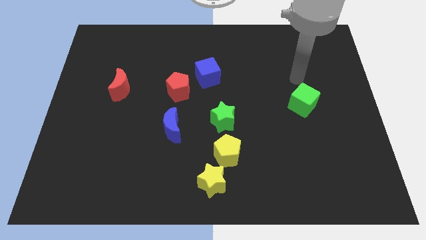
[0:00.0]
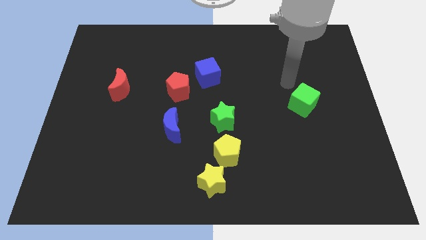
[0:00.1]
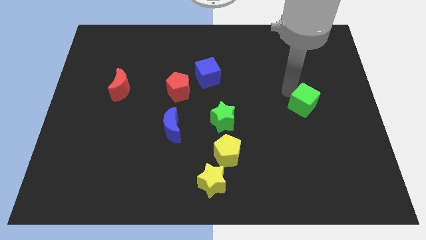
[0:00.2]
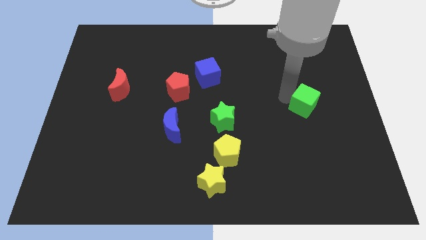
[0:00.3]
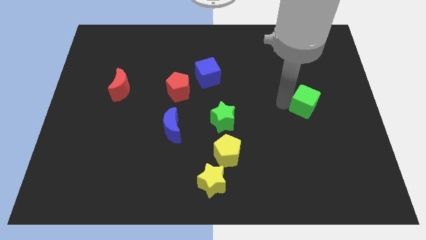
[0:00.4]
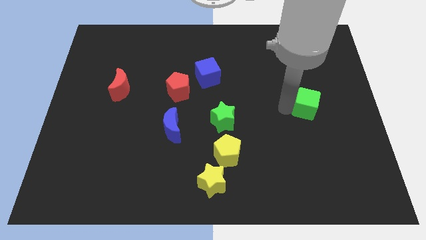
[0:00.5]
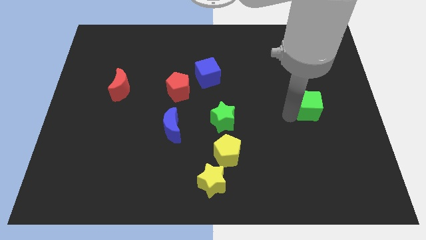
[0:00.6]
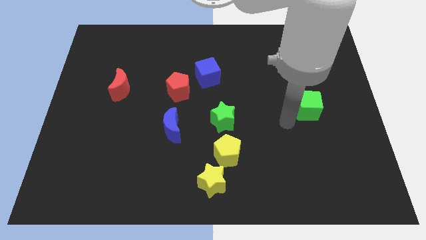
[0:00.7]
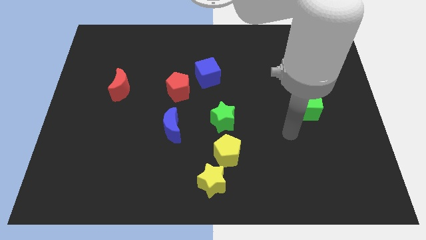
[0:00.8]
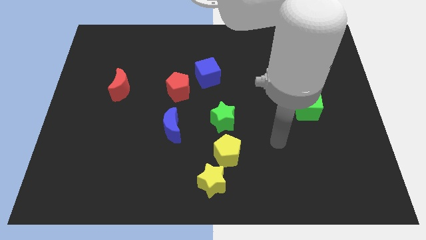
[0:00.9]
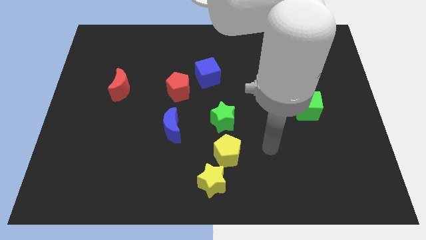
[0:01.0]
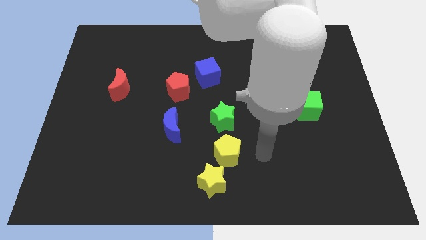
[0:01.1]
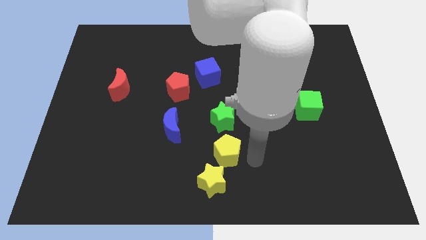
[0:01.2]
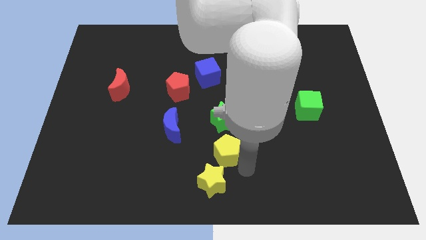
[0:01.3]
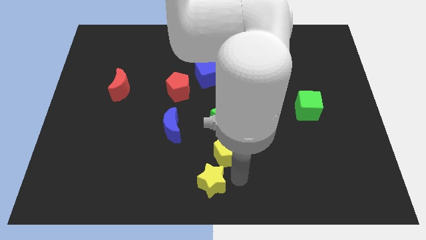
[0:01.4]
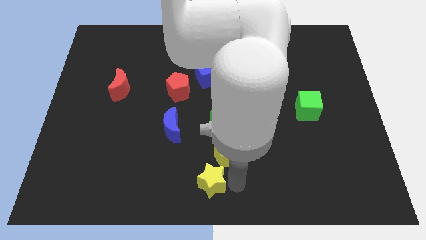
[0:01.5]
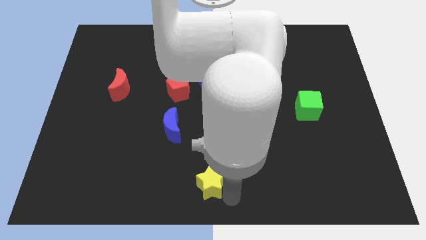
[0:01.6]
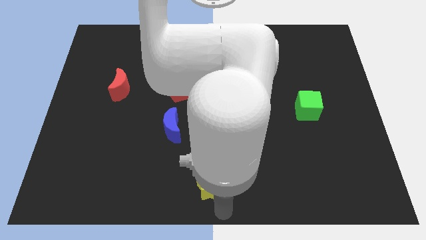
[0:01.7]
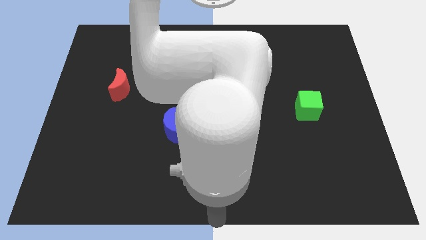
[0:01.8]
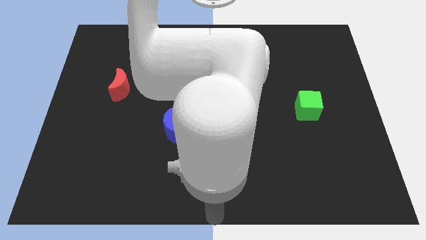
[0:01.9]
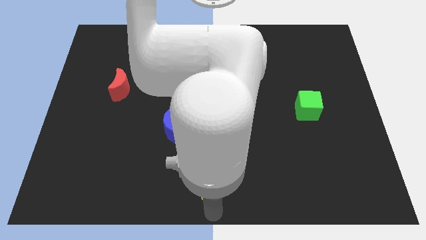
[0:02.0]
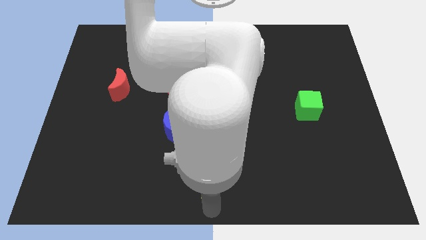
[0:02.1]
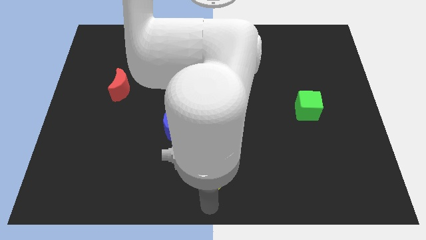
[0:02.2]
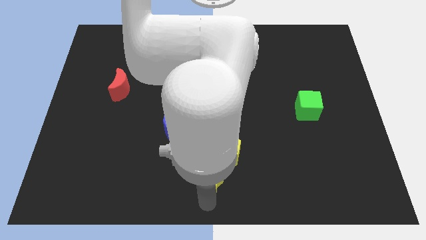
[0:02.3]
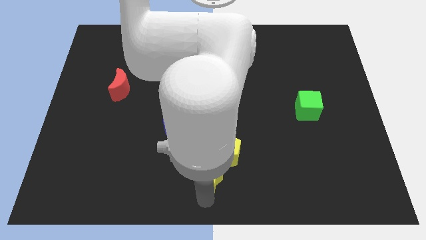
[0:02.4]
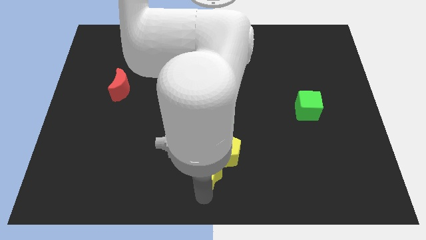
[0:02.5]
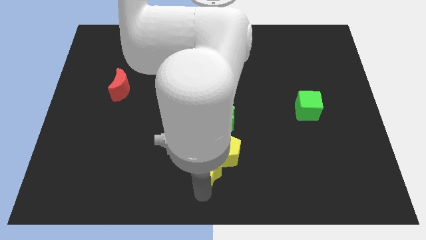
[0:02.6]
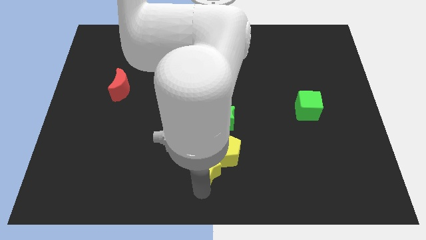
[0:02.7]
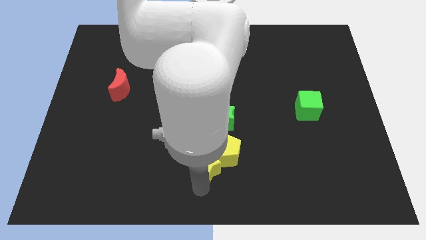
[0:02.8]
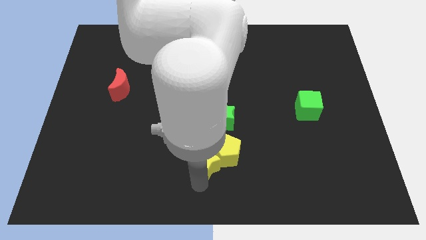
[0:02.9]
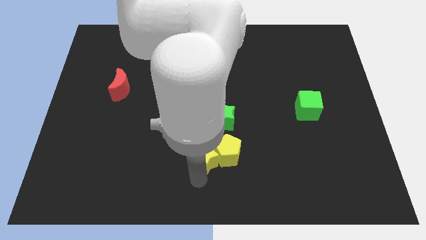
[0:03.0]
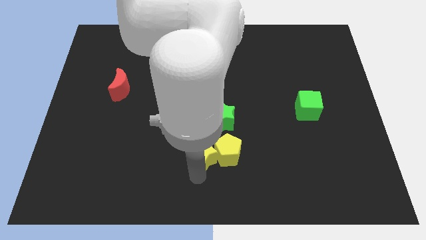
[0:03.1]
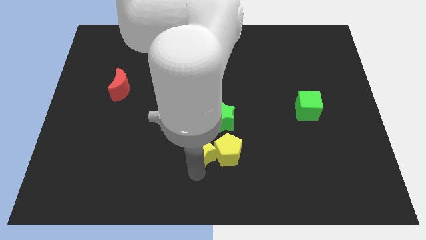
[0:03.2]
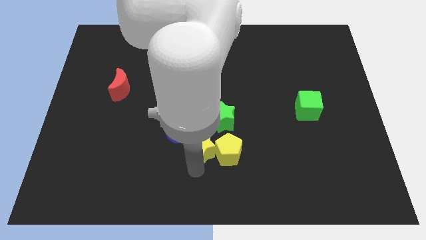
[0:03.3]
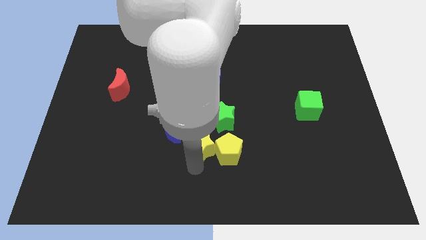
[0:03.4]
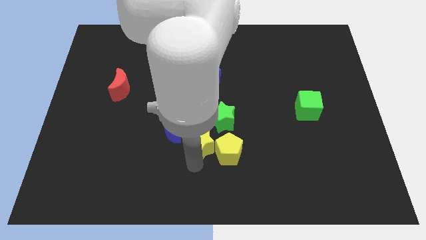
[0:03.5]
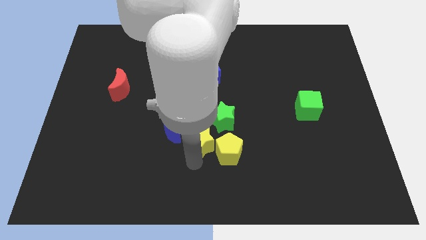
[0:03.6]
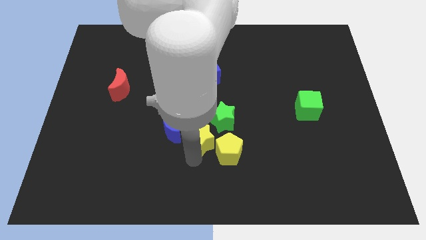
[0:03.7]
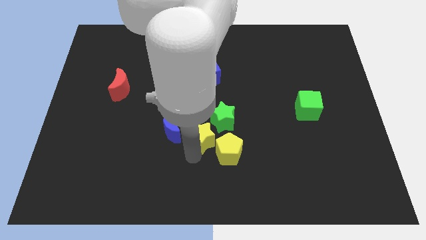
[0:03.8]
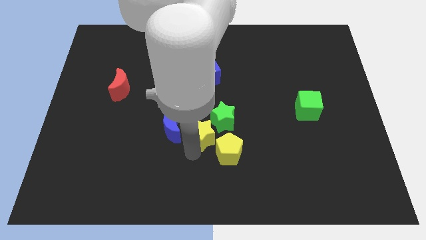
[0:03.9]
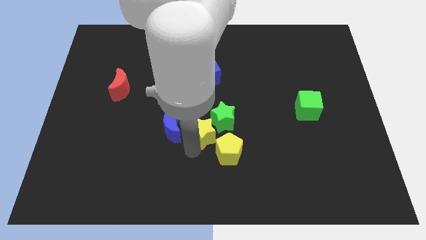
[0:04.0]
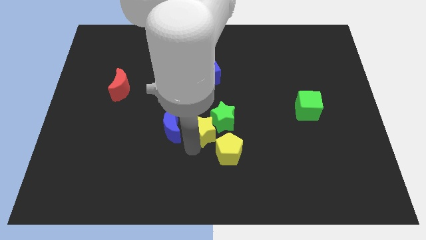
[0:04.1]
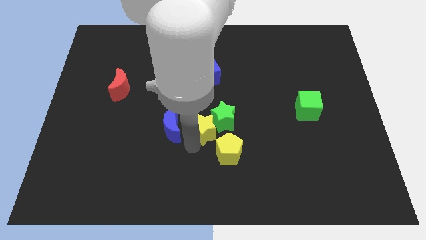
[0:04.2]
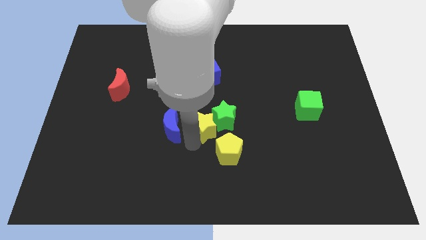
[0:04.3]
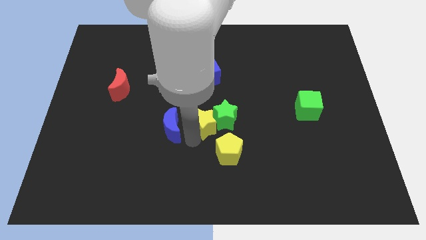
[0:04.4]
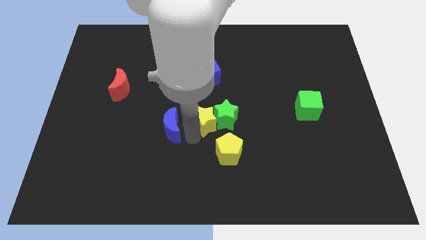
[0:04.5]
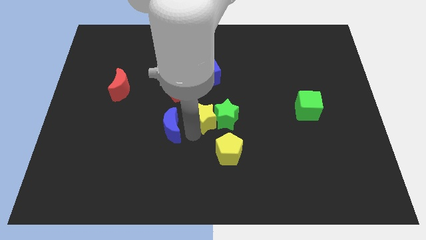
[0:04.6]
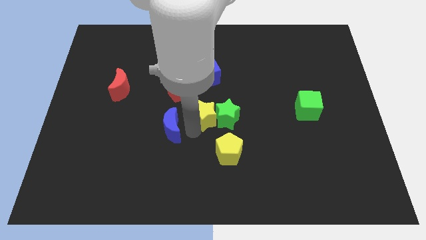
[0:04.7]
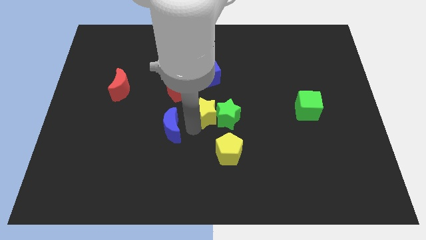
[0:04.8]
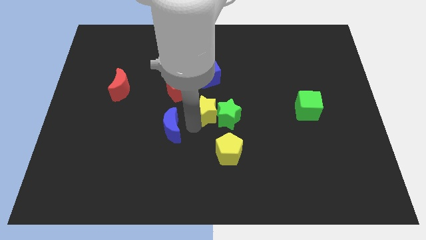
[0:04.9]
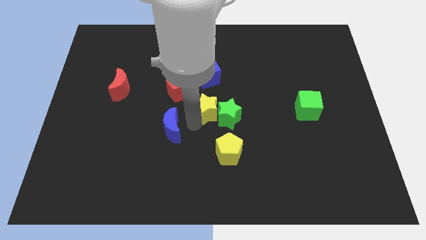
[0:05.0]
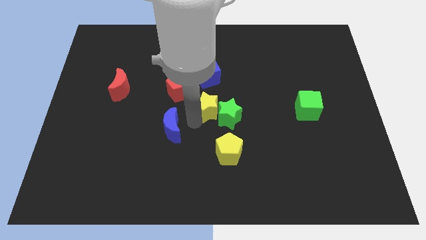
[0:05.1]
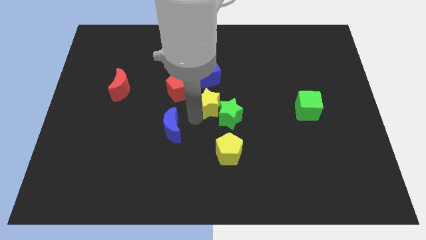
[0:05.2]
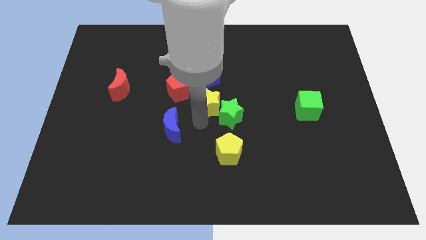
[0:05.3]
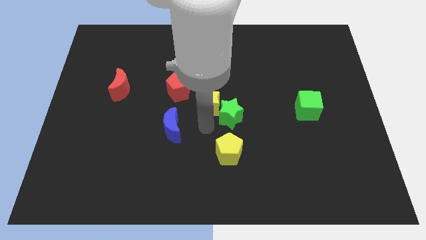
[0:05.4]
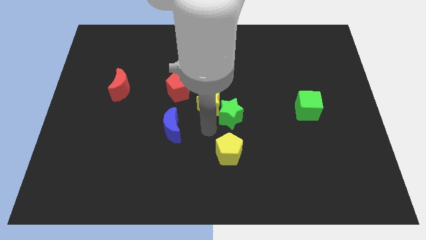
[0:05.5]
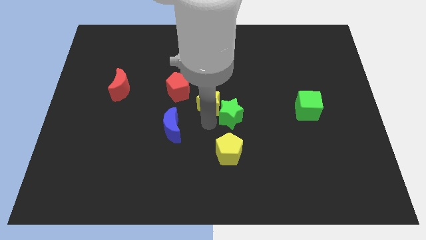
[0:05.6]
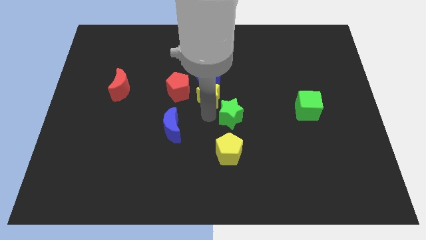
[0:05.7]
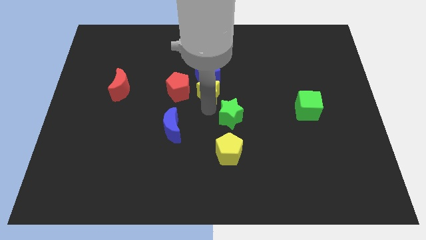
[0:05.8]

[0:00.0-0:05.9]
push the yellow star close to the blue cube

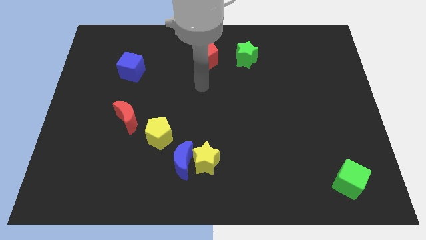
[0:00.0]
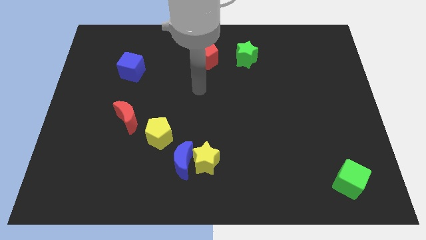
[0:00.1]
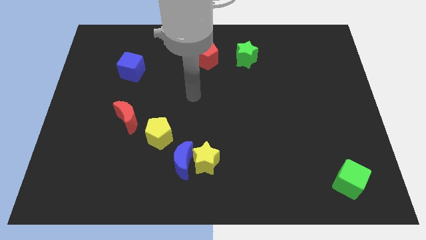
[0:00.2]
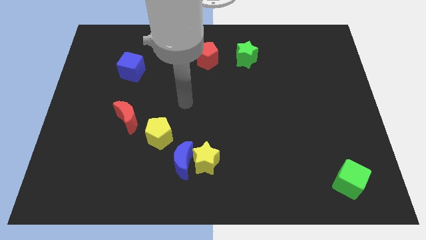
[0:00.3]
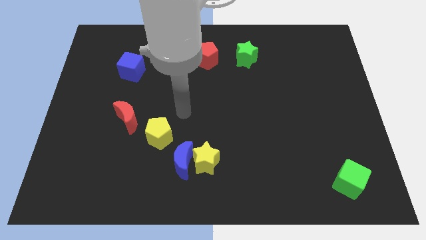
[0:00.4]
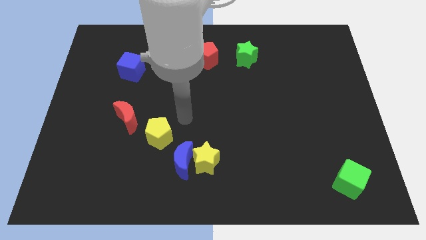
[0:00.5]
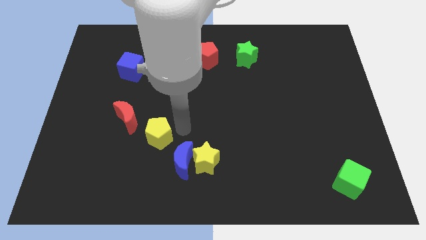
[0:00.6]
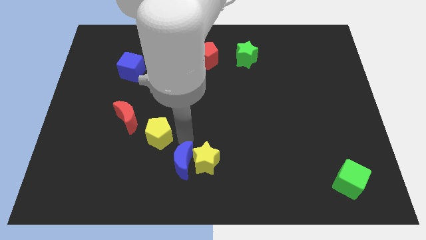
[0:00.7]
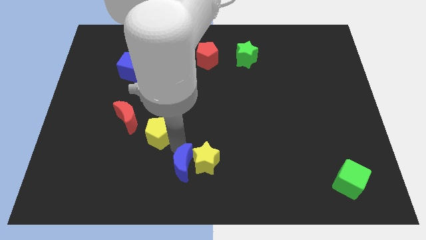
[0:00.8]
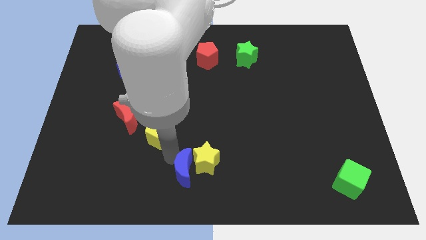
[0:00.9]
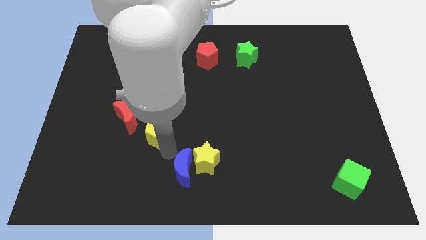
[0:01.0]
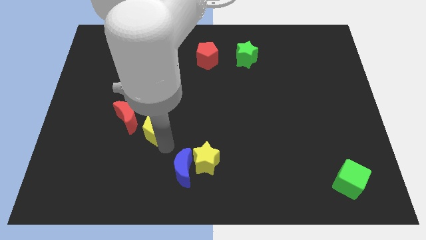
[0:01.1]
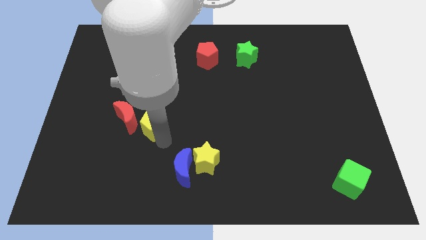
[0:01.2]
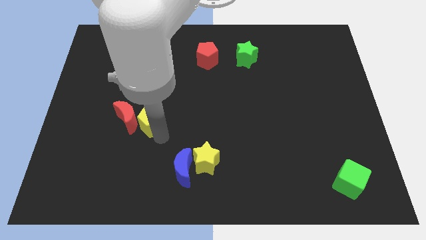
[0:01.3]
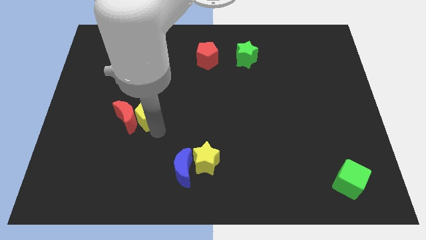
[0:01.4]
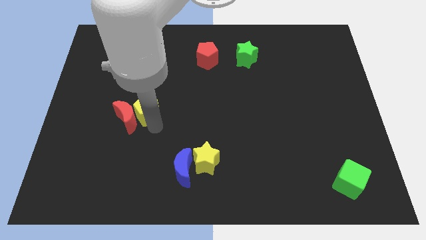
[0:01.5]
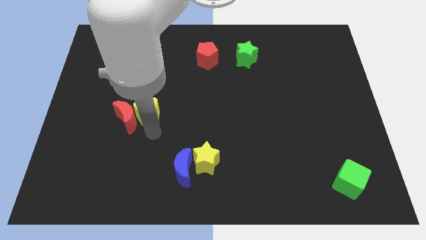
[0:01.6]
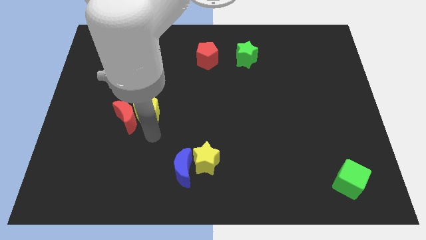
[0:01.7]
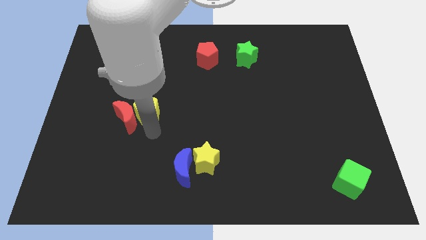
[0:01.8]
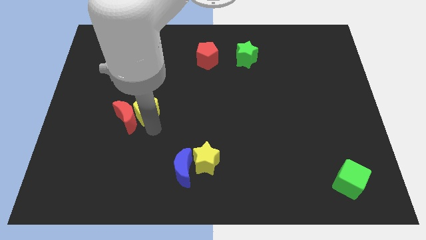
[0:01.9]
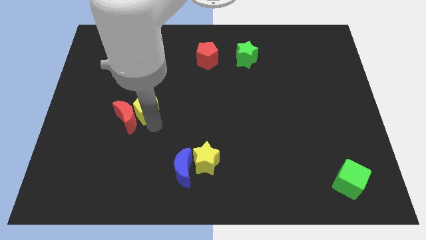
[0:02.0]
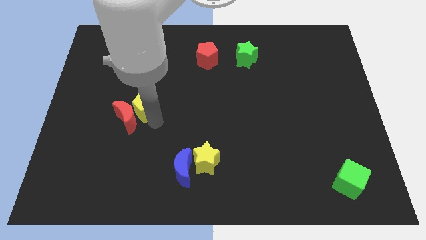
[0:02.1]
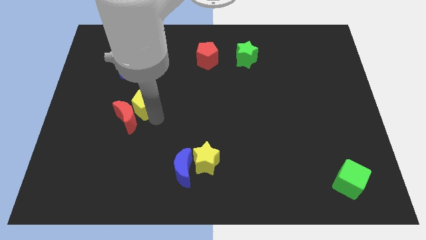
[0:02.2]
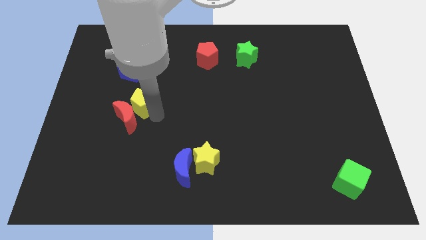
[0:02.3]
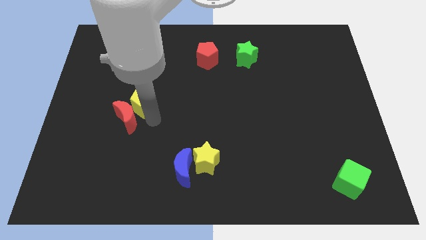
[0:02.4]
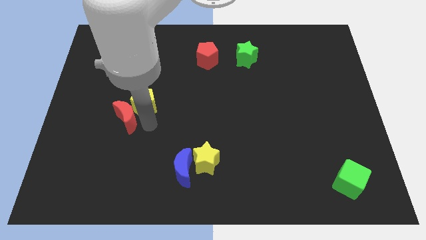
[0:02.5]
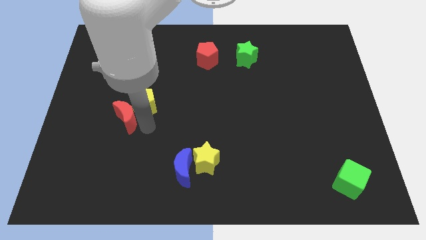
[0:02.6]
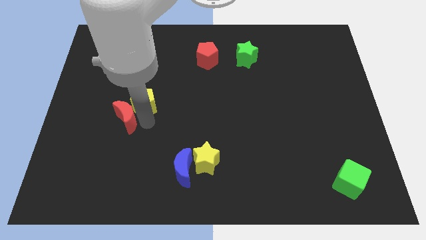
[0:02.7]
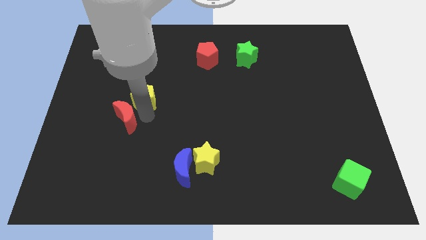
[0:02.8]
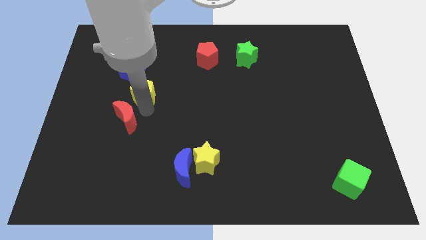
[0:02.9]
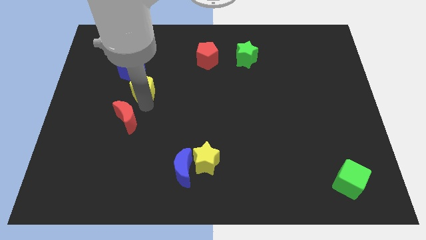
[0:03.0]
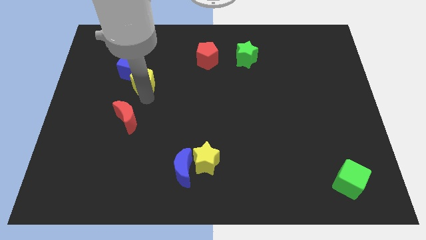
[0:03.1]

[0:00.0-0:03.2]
move the yellow pentagon to the blue cube
